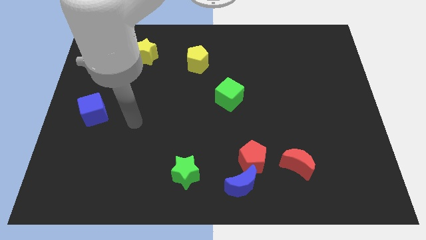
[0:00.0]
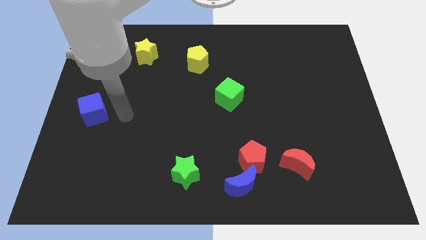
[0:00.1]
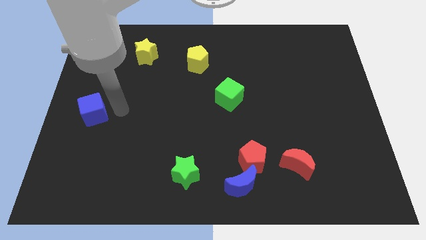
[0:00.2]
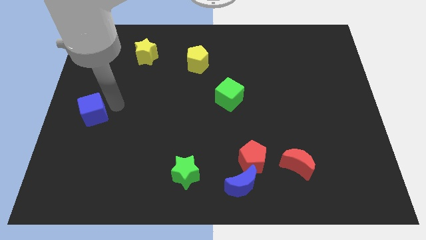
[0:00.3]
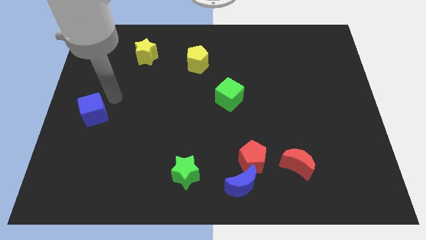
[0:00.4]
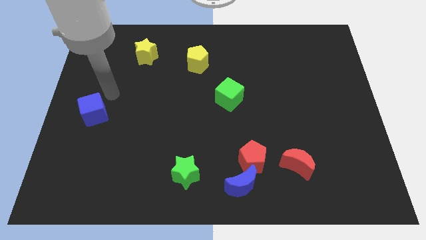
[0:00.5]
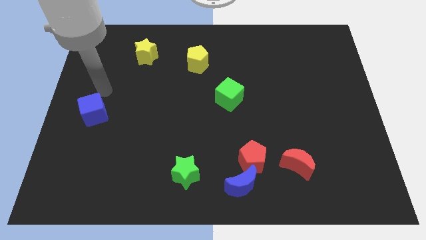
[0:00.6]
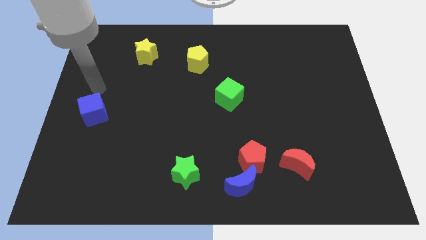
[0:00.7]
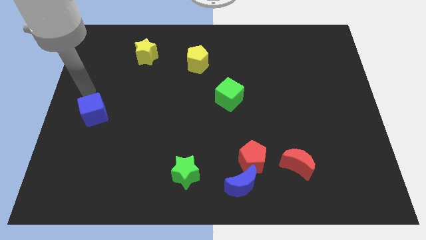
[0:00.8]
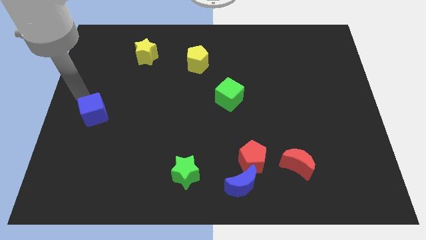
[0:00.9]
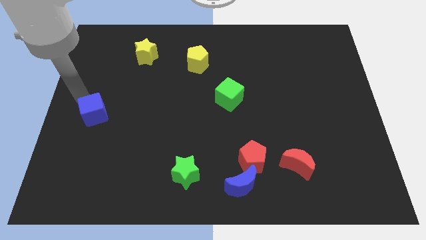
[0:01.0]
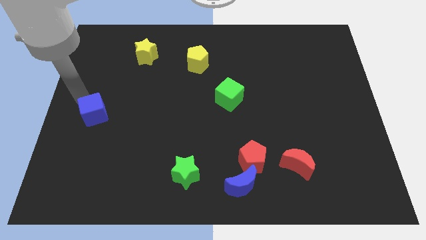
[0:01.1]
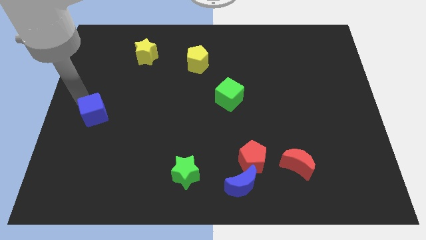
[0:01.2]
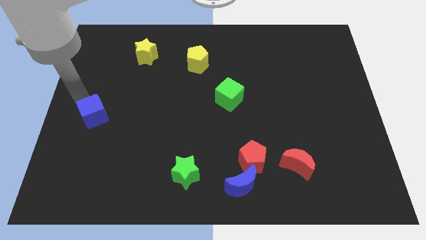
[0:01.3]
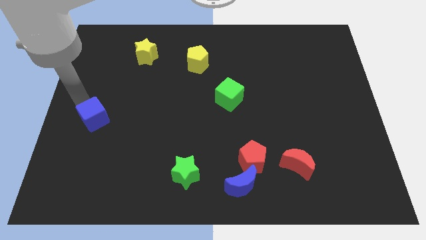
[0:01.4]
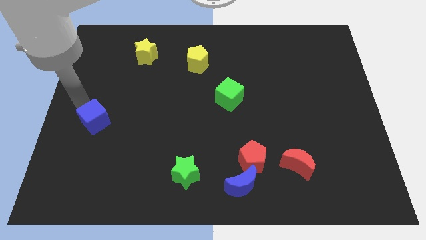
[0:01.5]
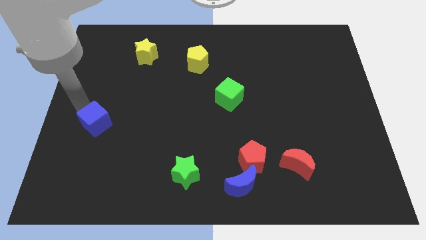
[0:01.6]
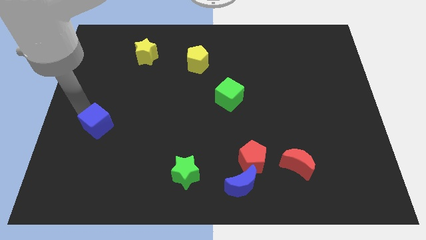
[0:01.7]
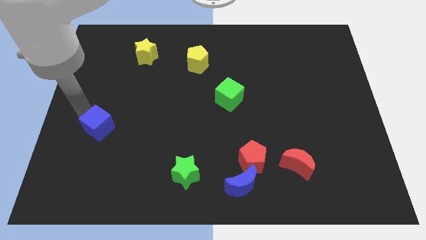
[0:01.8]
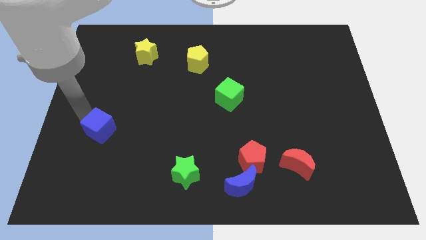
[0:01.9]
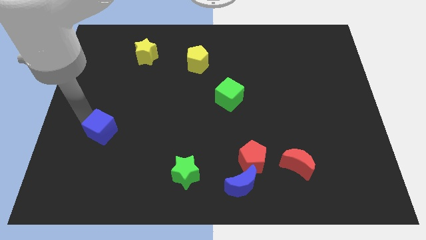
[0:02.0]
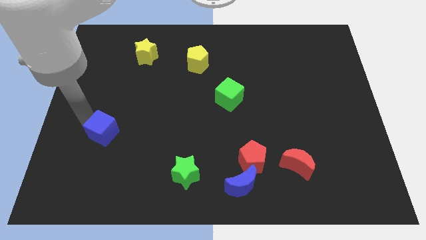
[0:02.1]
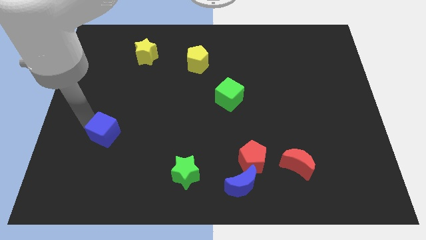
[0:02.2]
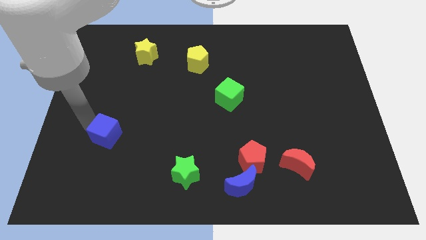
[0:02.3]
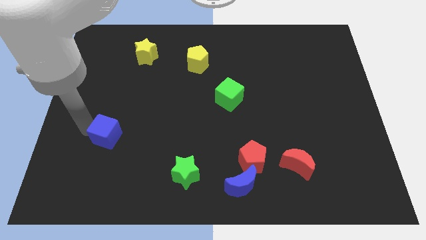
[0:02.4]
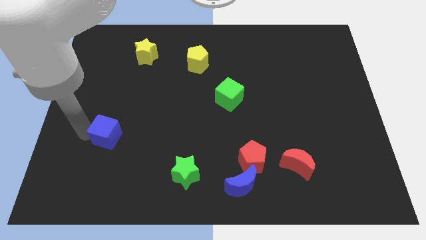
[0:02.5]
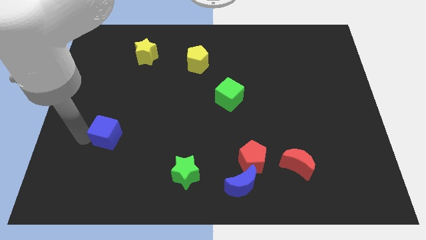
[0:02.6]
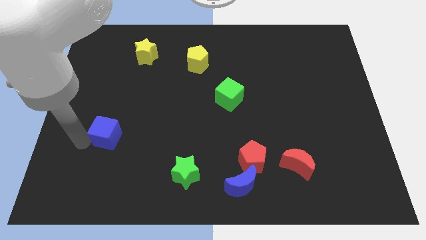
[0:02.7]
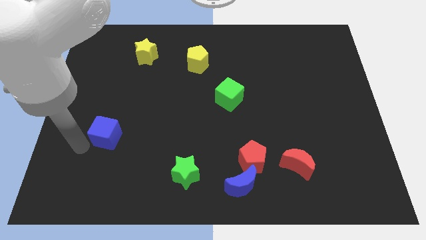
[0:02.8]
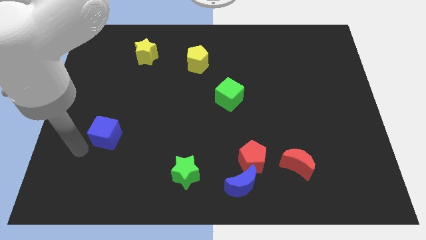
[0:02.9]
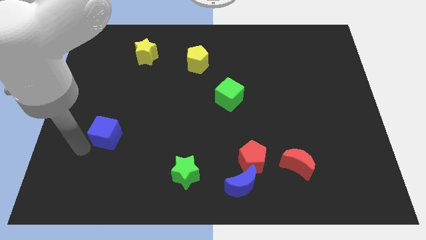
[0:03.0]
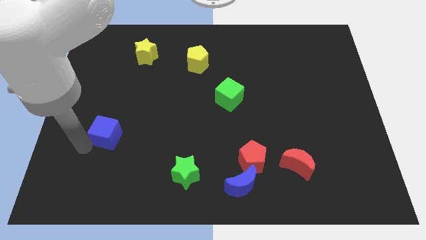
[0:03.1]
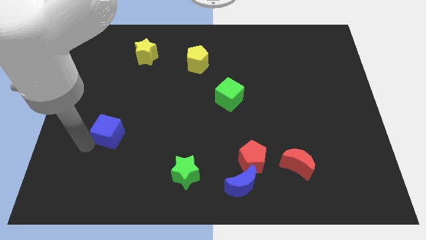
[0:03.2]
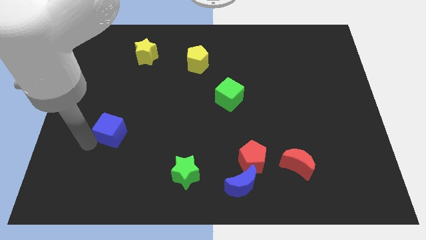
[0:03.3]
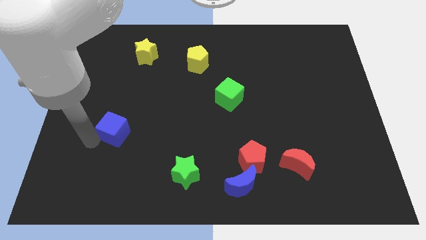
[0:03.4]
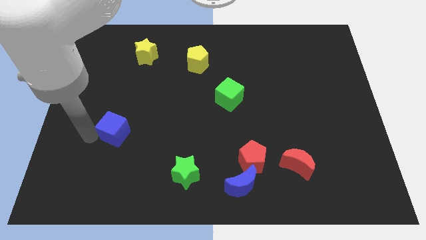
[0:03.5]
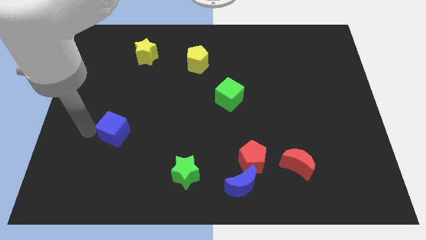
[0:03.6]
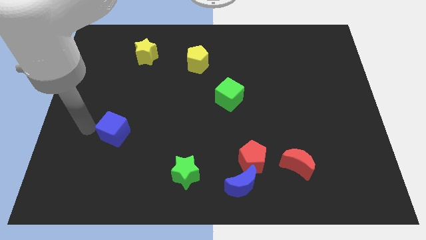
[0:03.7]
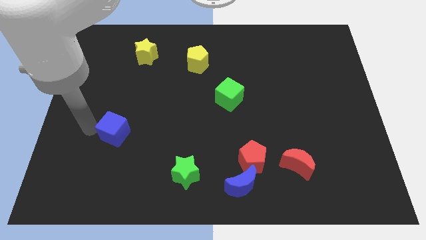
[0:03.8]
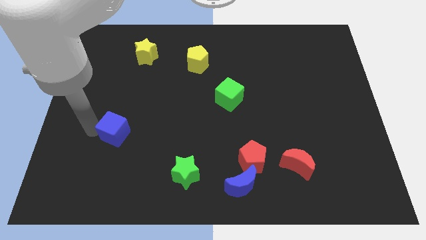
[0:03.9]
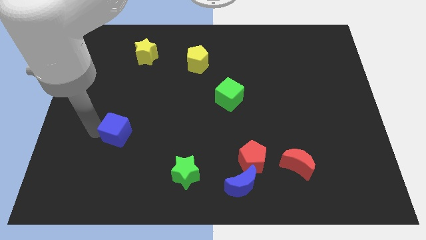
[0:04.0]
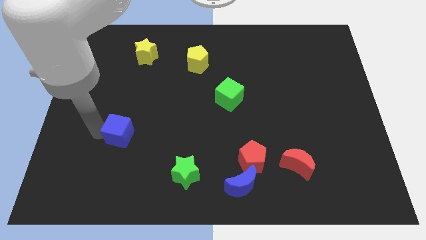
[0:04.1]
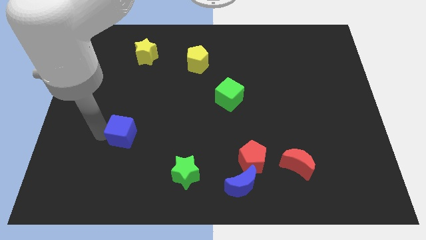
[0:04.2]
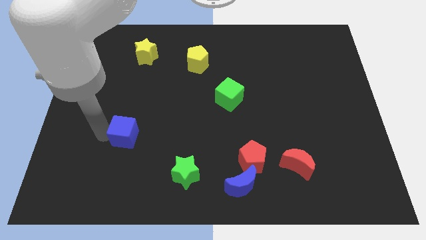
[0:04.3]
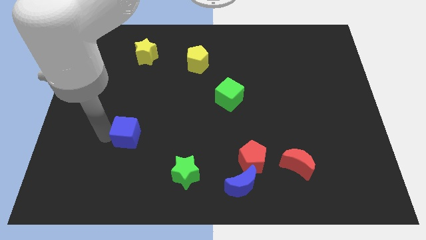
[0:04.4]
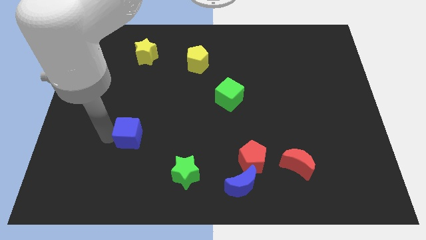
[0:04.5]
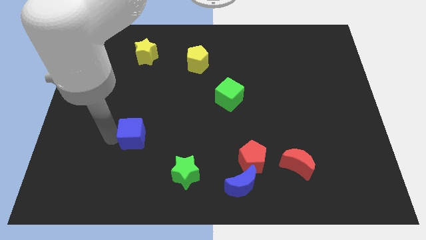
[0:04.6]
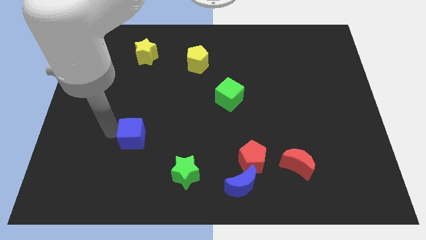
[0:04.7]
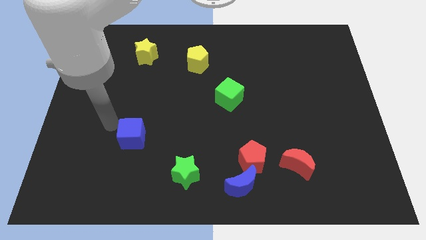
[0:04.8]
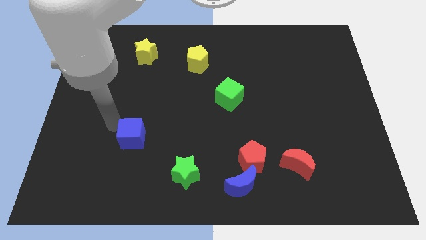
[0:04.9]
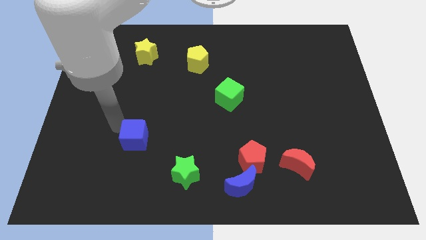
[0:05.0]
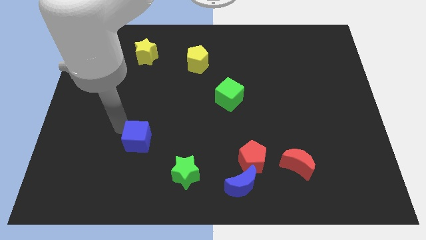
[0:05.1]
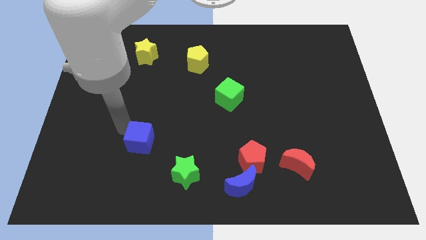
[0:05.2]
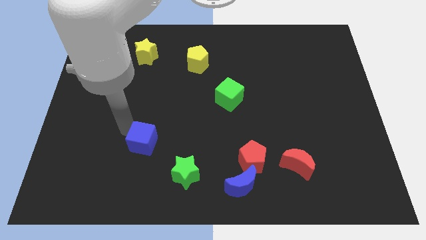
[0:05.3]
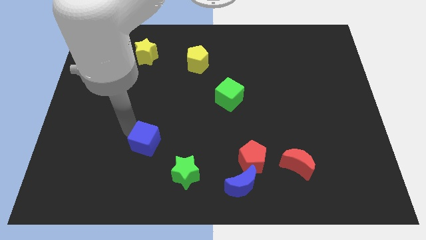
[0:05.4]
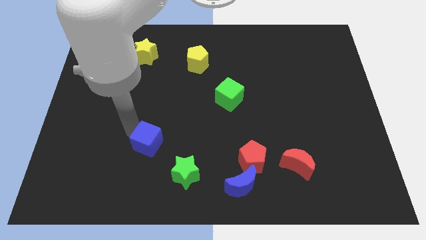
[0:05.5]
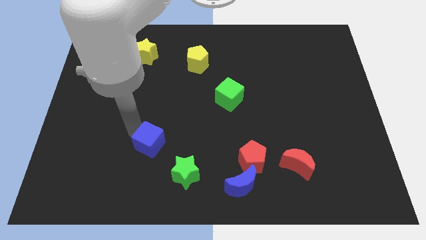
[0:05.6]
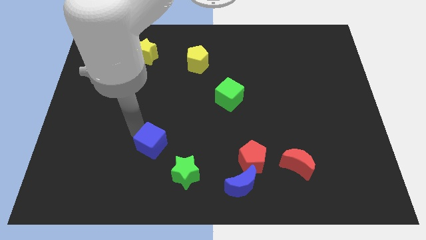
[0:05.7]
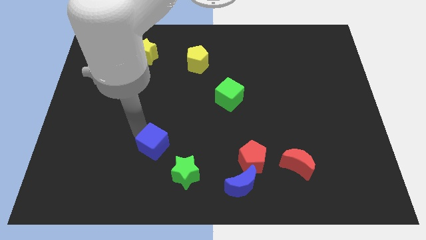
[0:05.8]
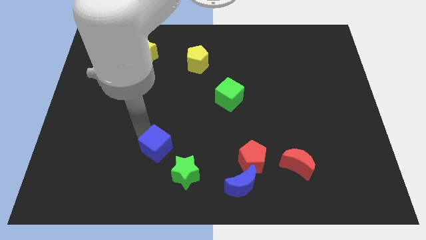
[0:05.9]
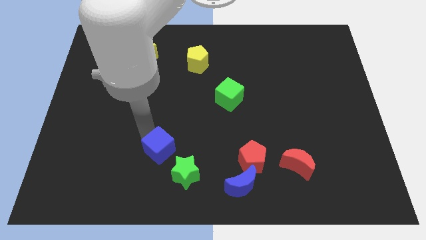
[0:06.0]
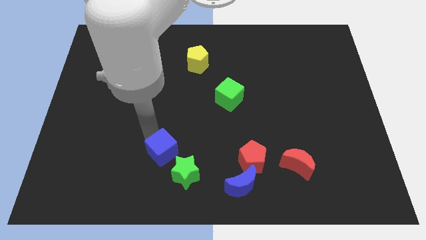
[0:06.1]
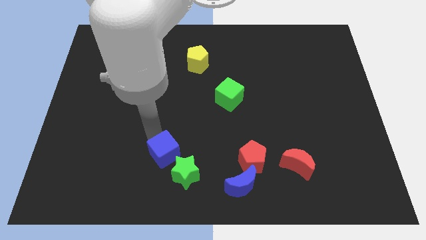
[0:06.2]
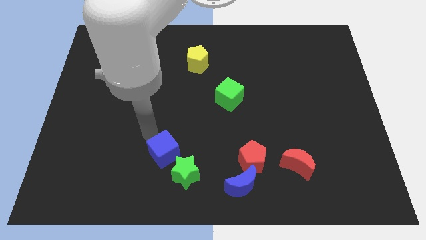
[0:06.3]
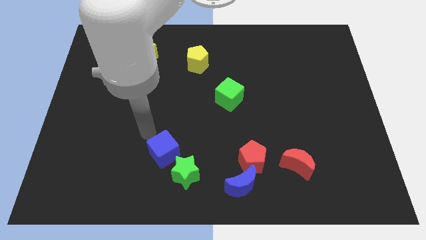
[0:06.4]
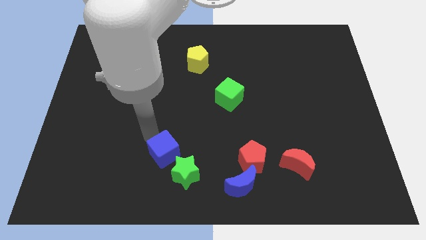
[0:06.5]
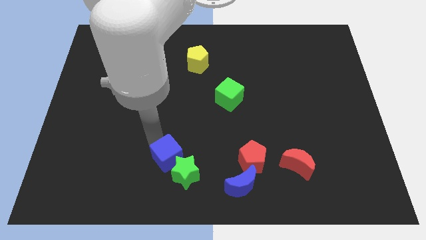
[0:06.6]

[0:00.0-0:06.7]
push the blue cube to the green star
